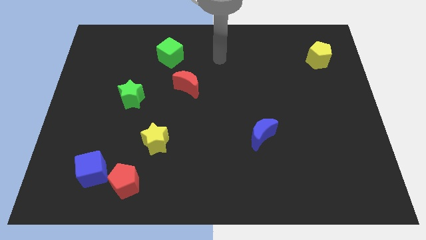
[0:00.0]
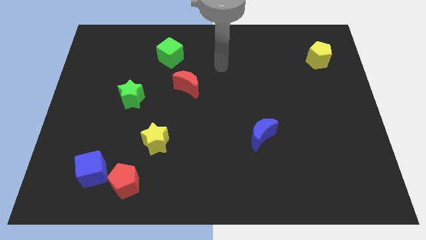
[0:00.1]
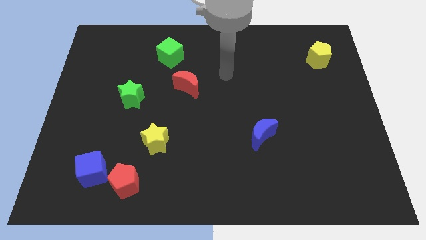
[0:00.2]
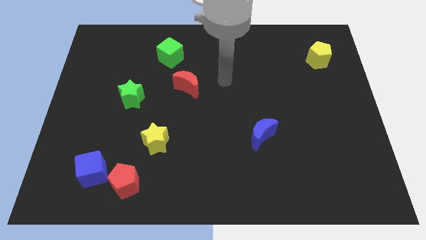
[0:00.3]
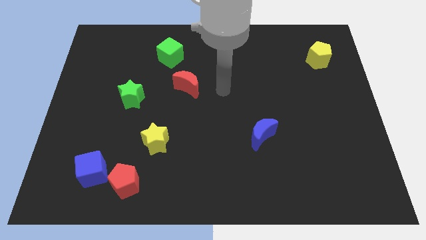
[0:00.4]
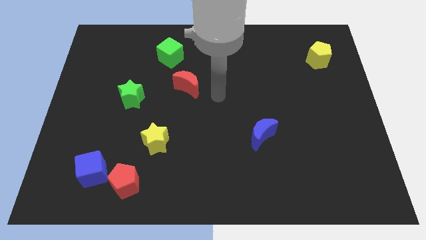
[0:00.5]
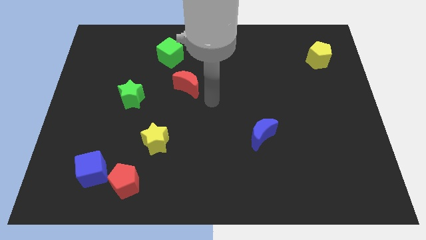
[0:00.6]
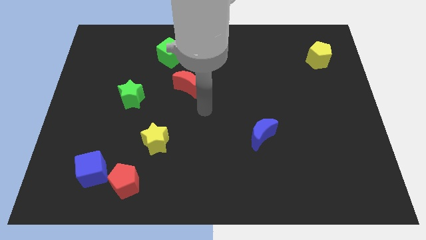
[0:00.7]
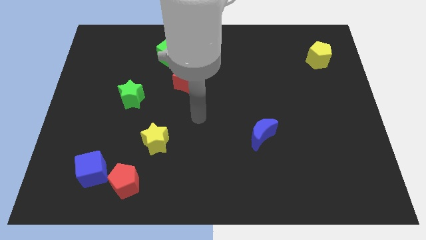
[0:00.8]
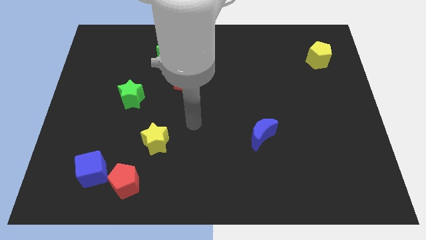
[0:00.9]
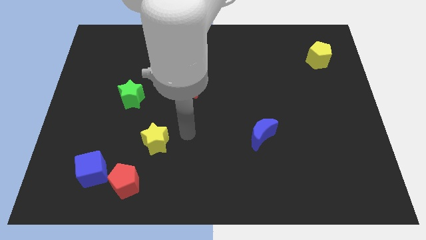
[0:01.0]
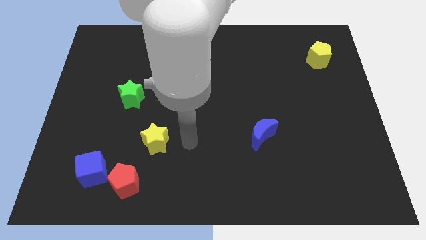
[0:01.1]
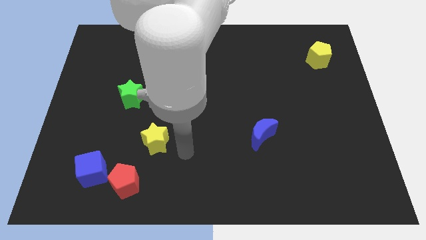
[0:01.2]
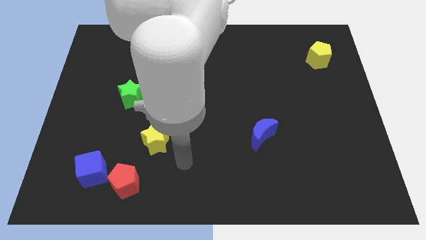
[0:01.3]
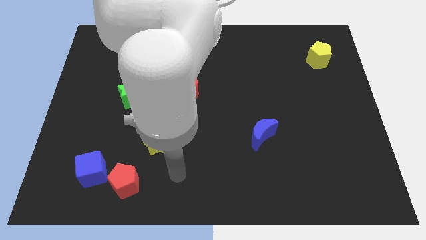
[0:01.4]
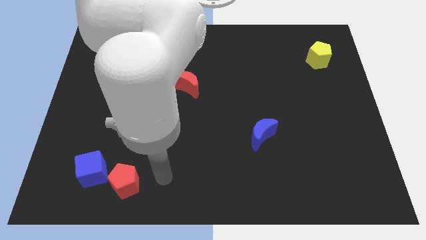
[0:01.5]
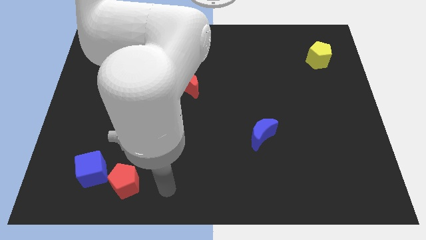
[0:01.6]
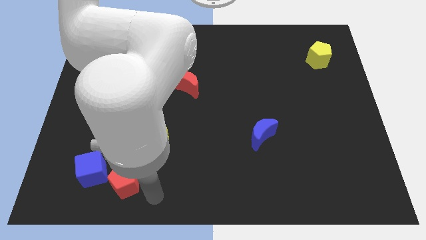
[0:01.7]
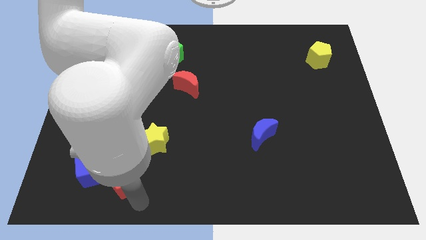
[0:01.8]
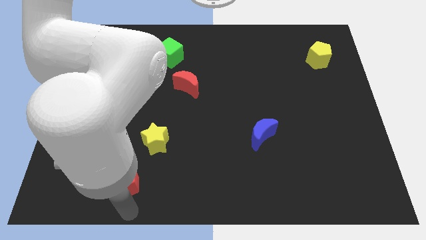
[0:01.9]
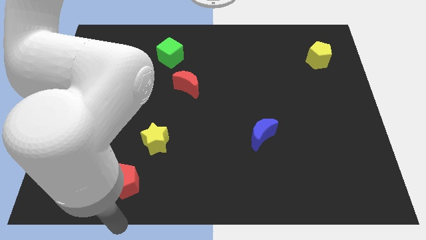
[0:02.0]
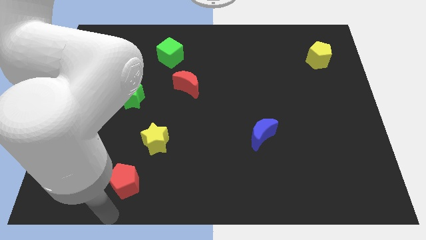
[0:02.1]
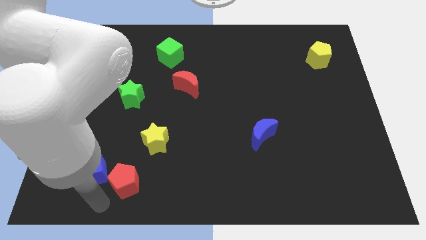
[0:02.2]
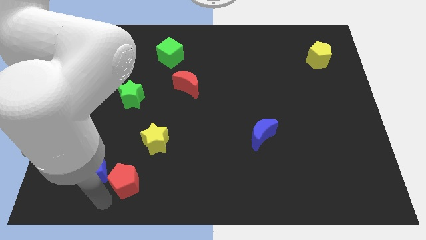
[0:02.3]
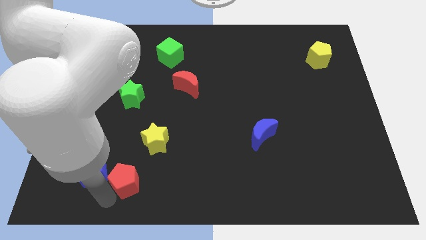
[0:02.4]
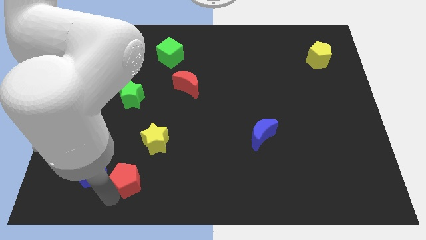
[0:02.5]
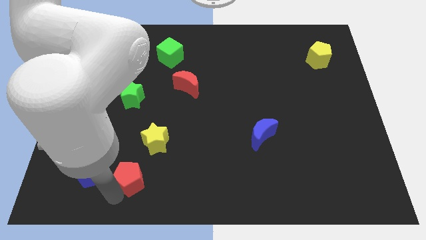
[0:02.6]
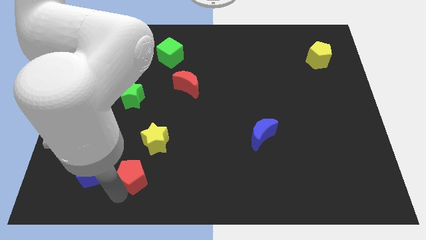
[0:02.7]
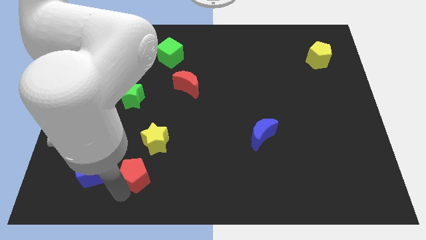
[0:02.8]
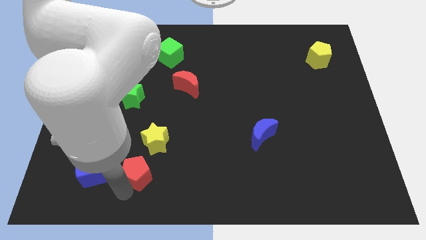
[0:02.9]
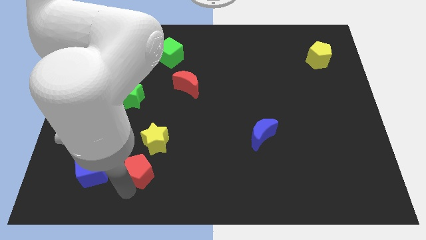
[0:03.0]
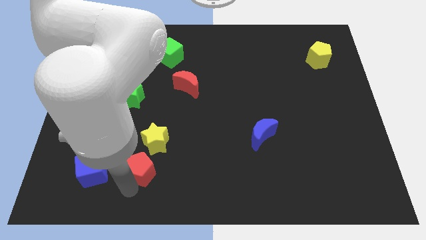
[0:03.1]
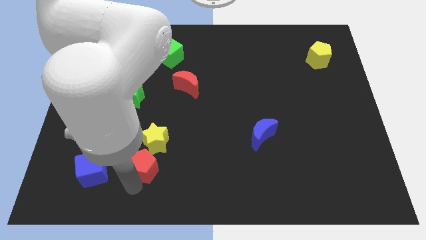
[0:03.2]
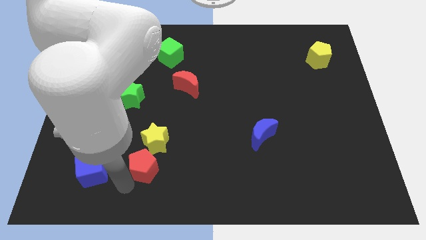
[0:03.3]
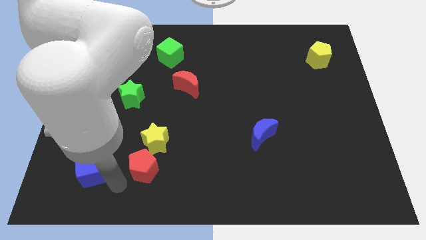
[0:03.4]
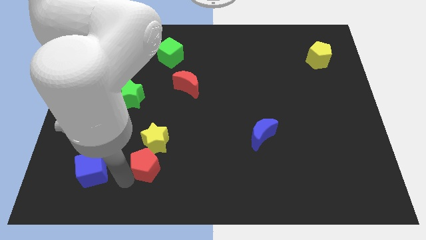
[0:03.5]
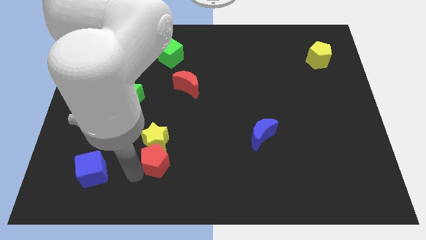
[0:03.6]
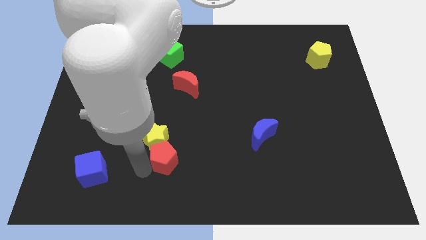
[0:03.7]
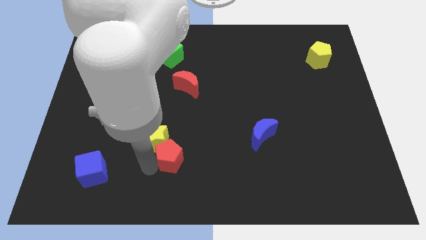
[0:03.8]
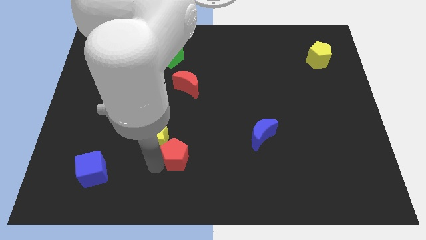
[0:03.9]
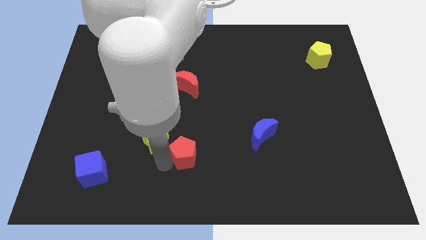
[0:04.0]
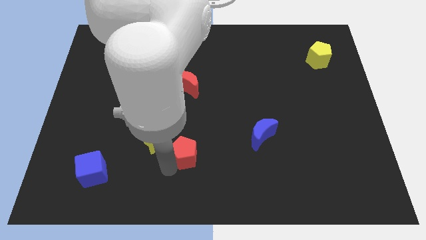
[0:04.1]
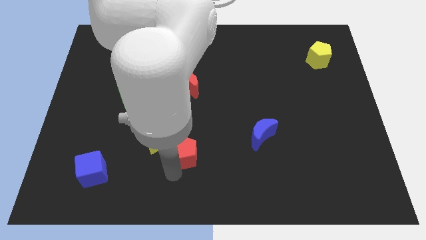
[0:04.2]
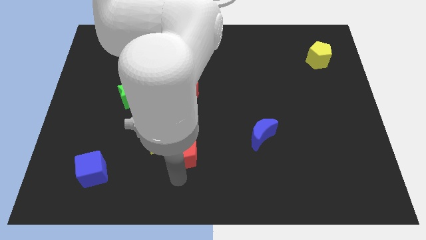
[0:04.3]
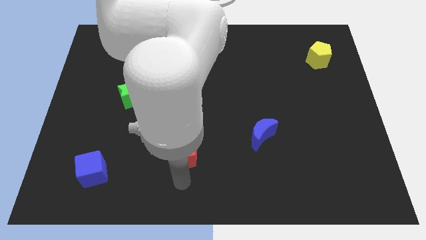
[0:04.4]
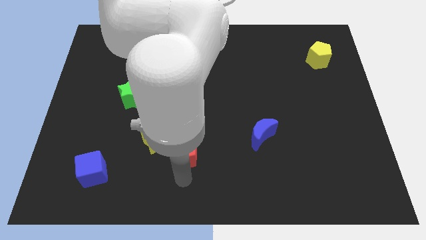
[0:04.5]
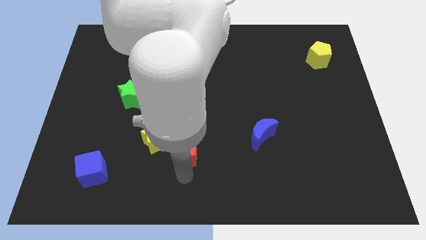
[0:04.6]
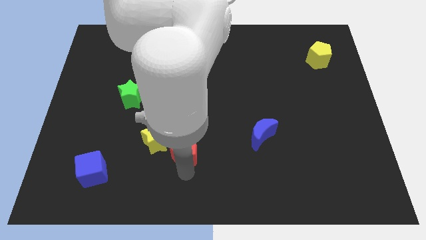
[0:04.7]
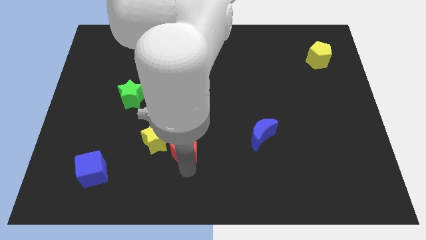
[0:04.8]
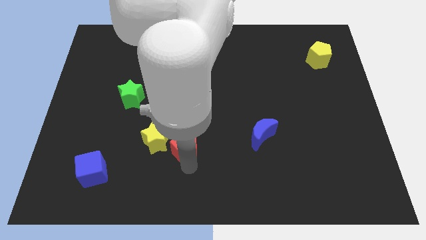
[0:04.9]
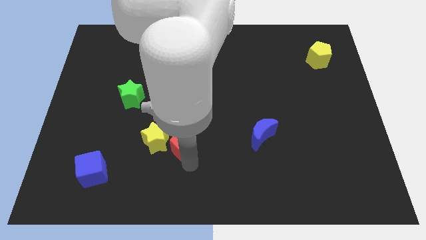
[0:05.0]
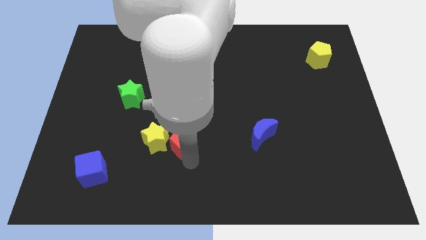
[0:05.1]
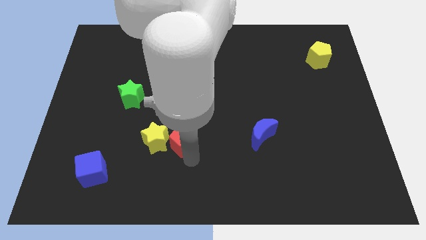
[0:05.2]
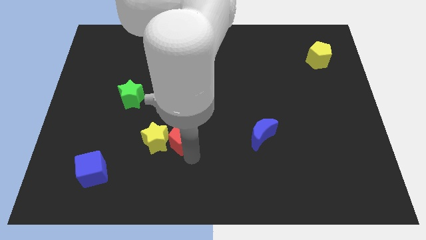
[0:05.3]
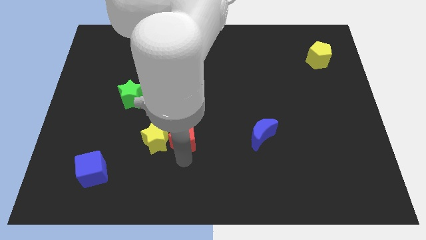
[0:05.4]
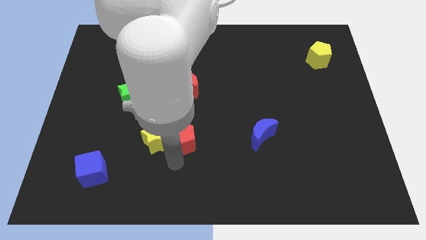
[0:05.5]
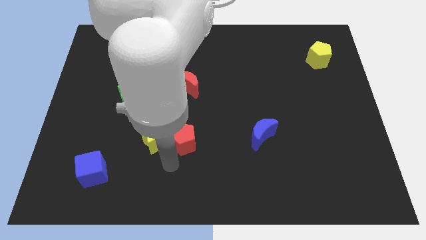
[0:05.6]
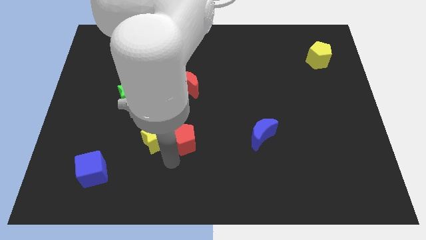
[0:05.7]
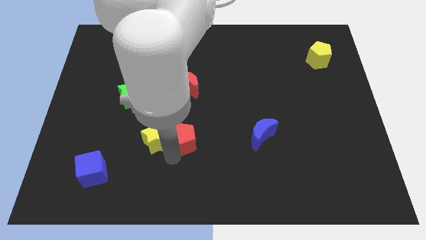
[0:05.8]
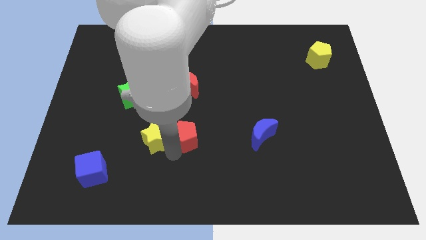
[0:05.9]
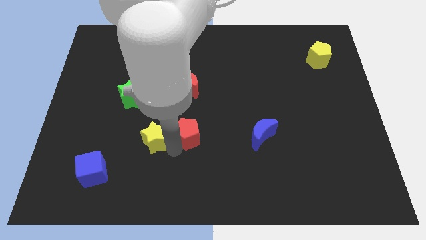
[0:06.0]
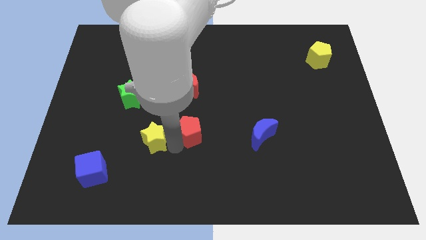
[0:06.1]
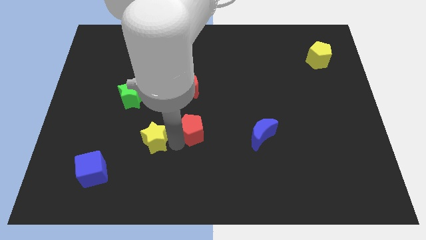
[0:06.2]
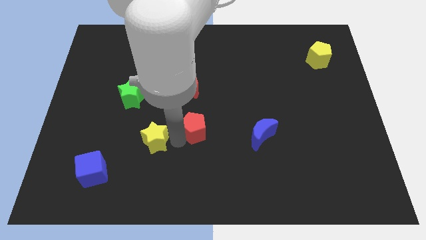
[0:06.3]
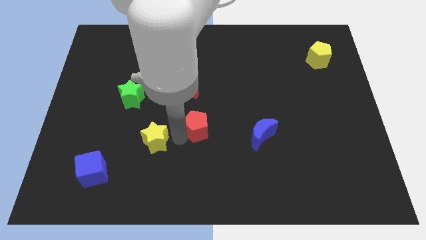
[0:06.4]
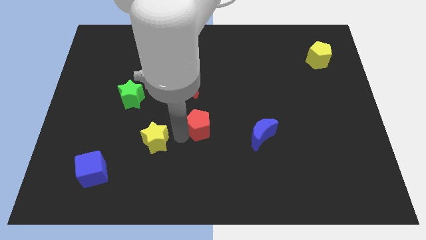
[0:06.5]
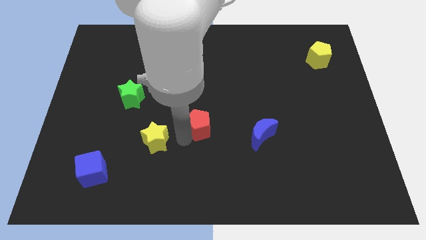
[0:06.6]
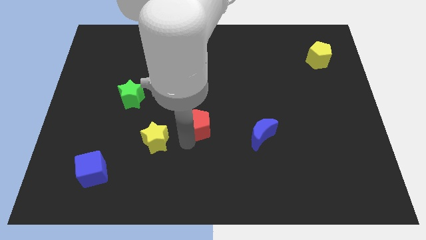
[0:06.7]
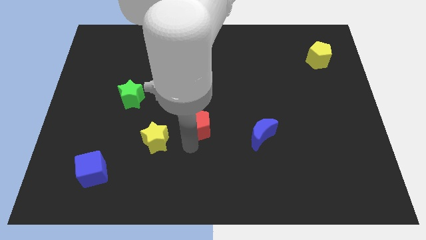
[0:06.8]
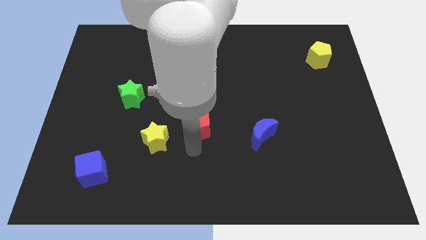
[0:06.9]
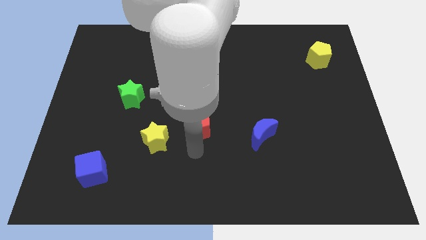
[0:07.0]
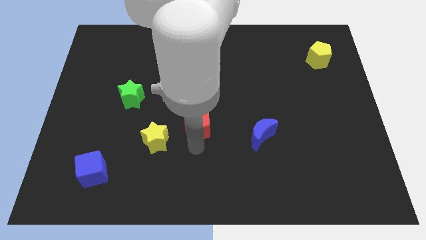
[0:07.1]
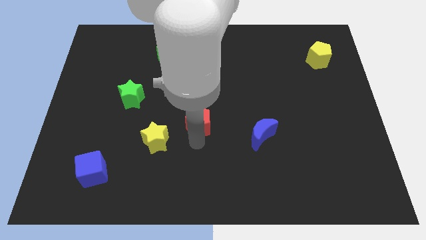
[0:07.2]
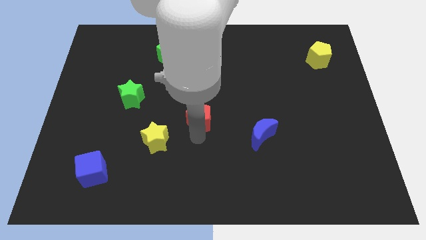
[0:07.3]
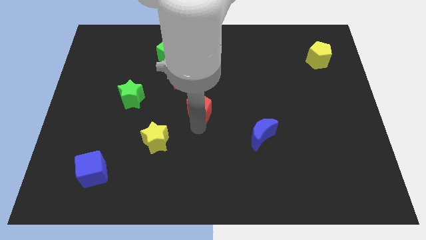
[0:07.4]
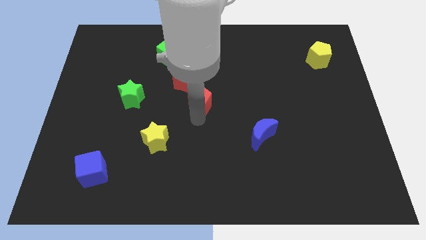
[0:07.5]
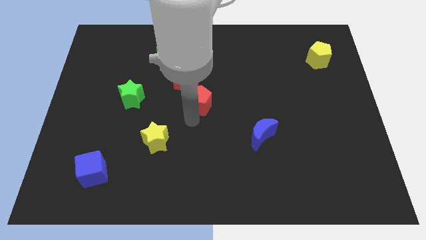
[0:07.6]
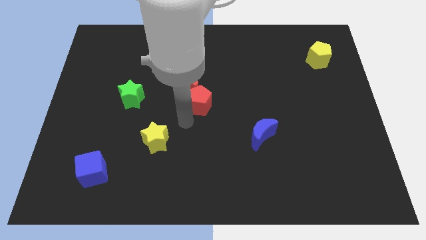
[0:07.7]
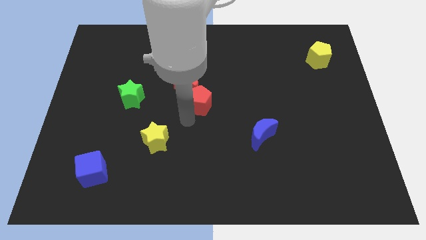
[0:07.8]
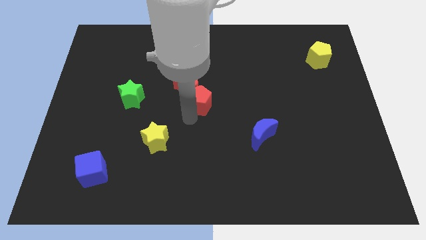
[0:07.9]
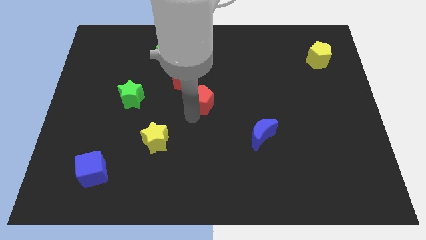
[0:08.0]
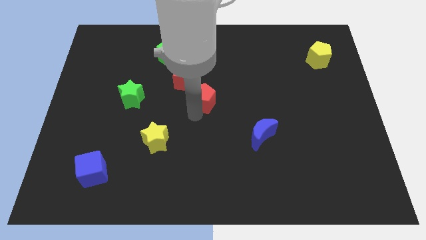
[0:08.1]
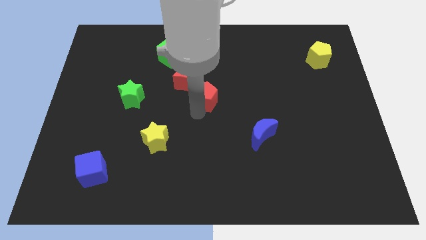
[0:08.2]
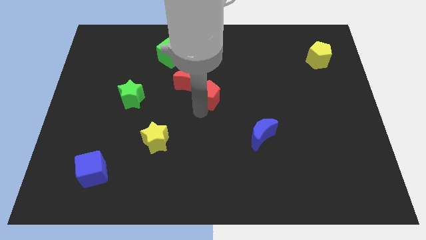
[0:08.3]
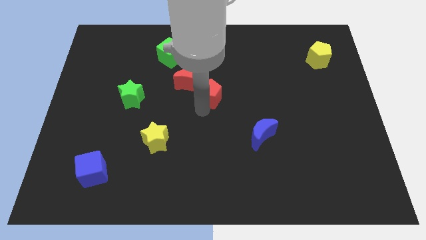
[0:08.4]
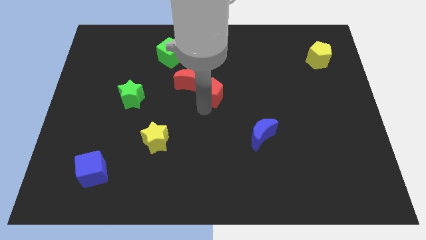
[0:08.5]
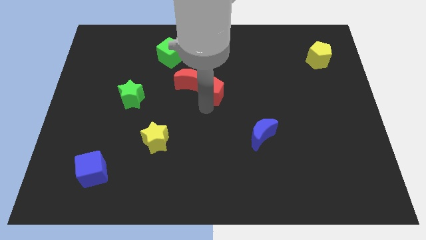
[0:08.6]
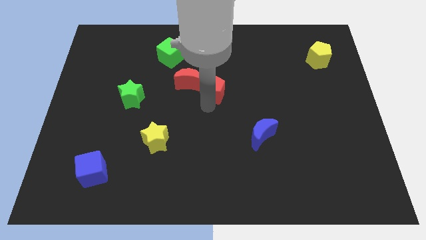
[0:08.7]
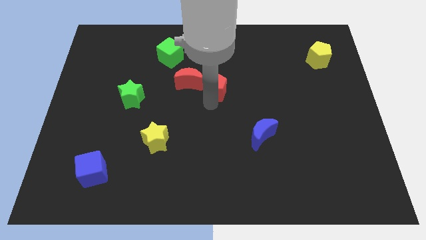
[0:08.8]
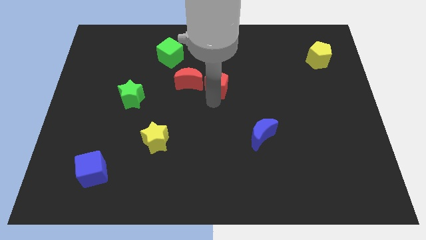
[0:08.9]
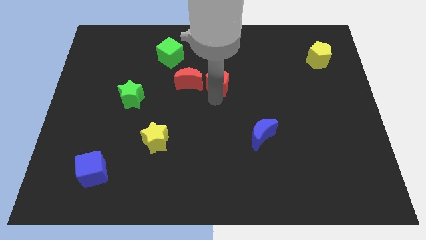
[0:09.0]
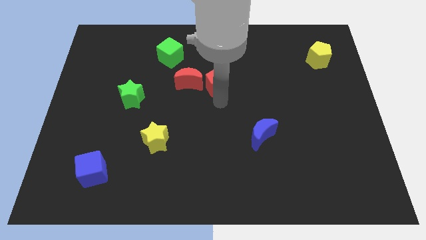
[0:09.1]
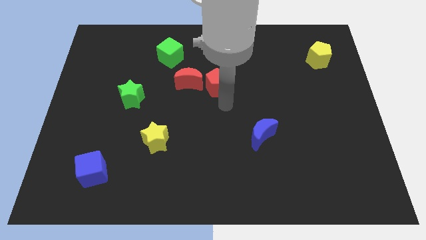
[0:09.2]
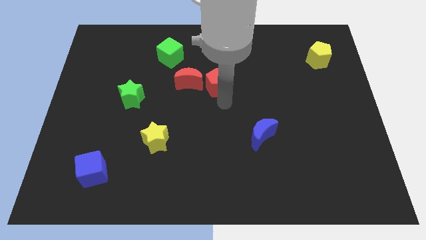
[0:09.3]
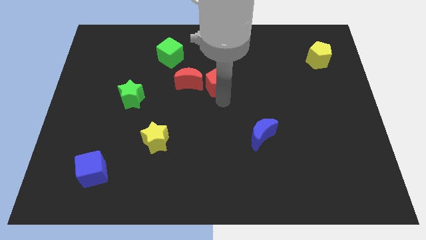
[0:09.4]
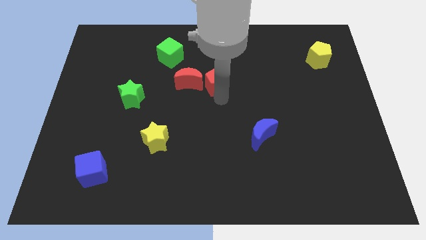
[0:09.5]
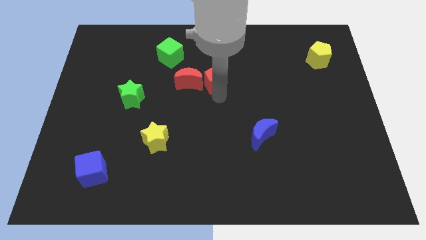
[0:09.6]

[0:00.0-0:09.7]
move the red pentagon to the top right of the red moon
